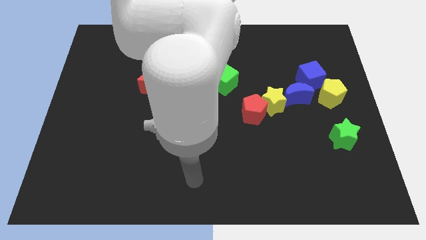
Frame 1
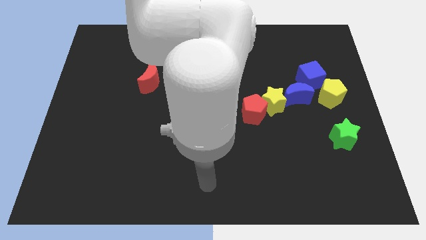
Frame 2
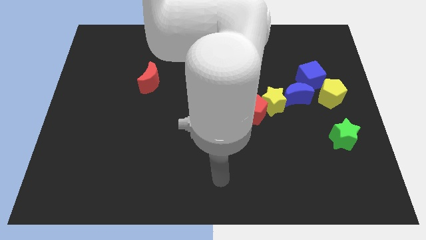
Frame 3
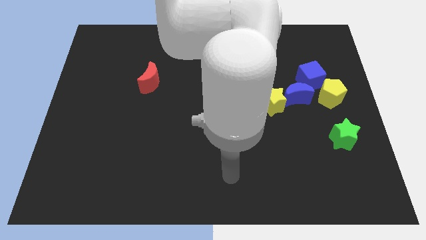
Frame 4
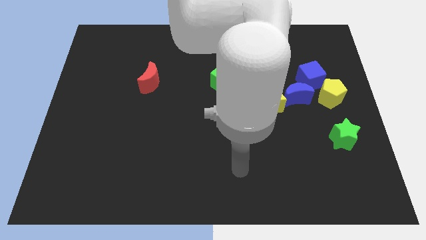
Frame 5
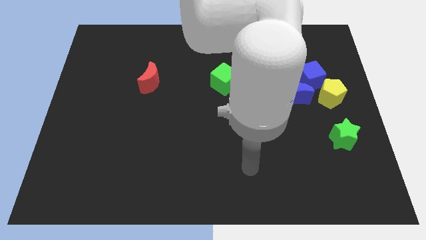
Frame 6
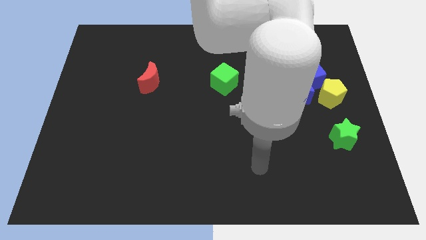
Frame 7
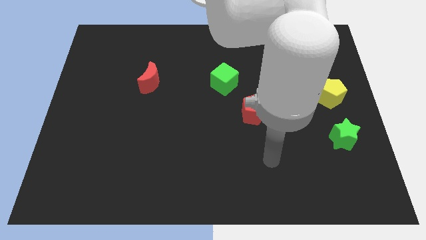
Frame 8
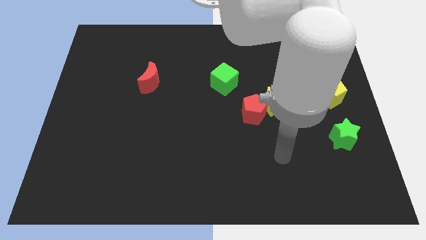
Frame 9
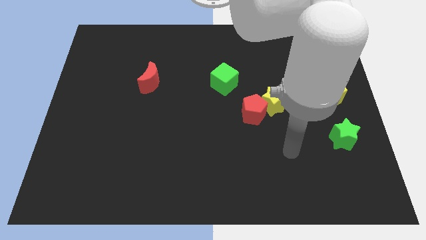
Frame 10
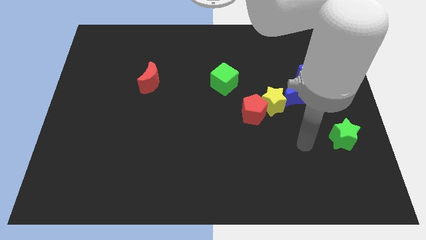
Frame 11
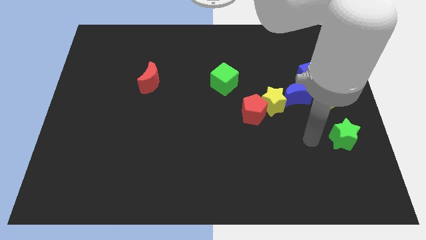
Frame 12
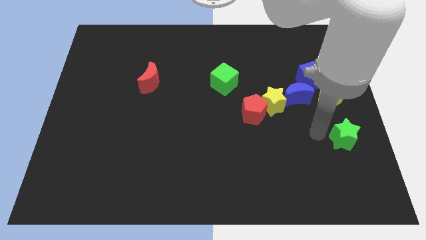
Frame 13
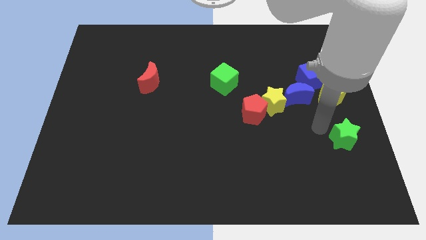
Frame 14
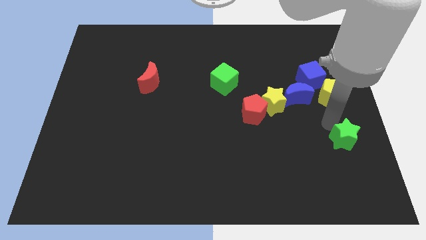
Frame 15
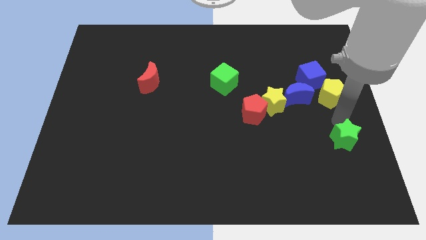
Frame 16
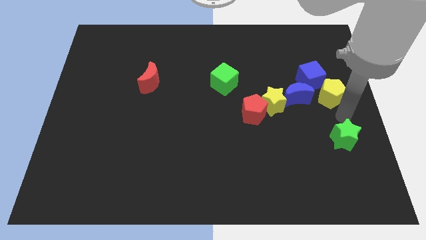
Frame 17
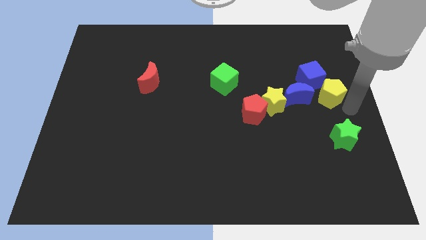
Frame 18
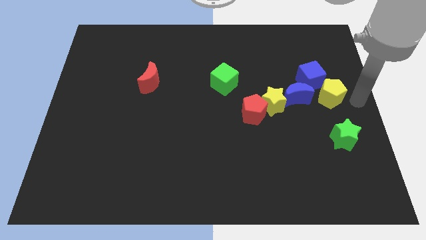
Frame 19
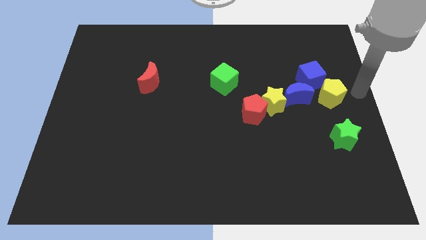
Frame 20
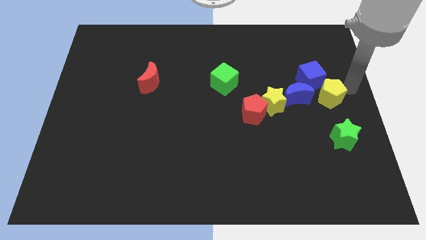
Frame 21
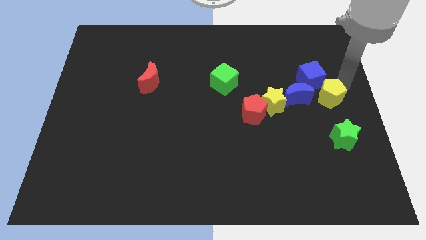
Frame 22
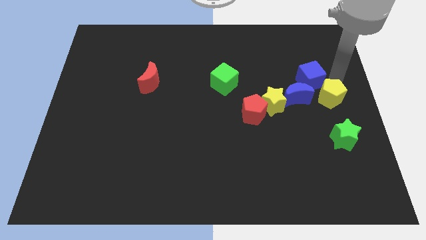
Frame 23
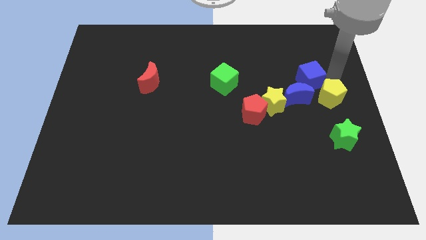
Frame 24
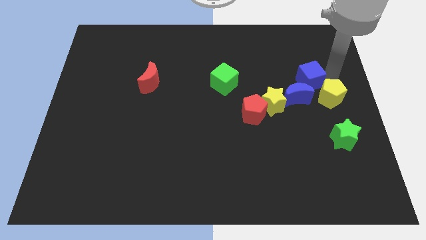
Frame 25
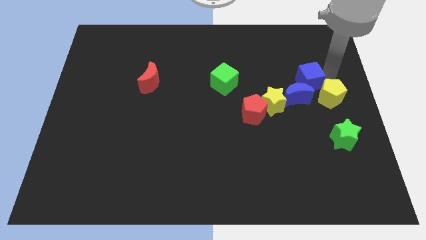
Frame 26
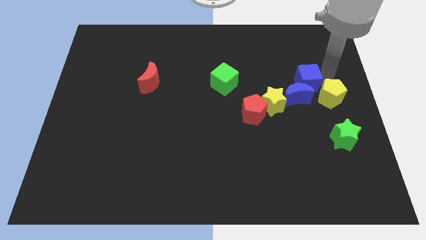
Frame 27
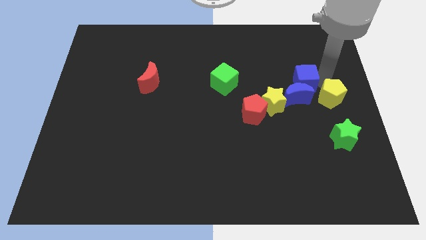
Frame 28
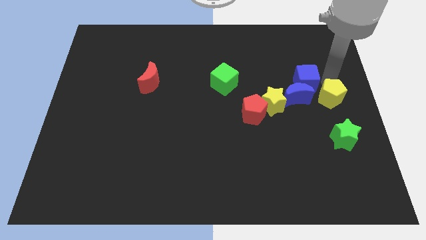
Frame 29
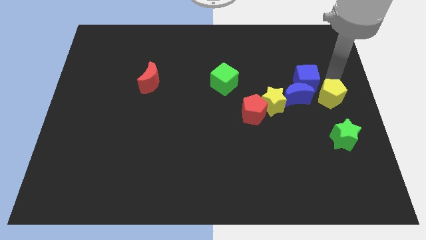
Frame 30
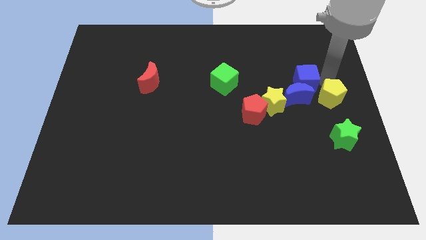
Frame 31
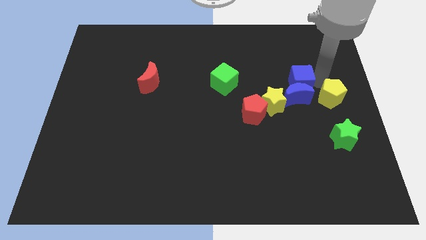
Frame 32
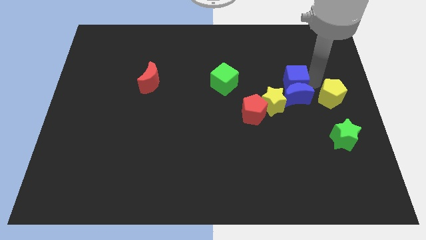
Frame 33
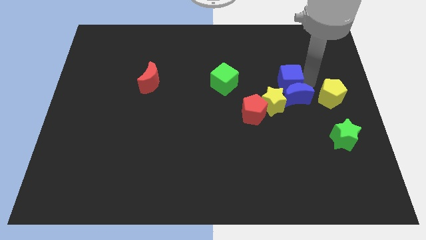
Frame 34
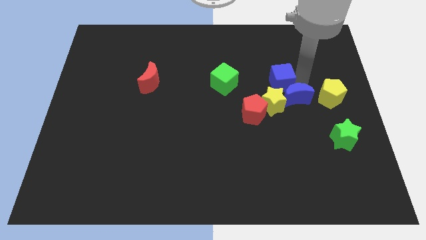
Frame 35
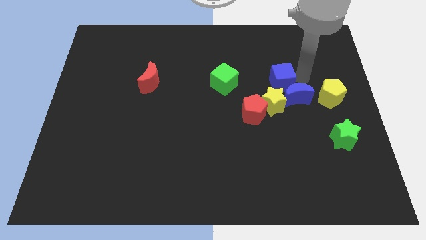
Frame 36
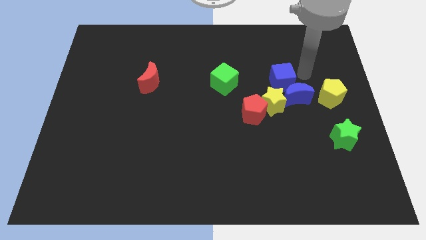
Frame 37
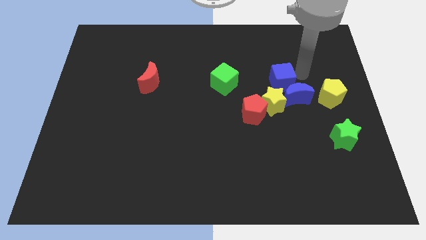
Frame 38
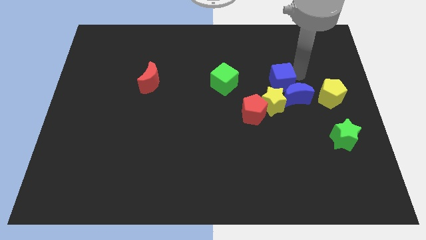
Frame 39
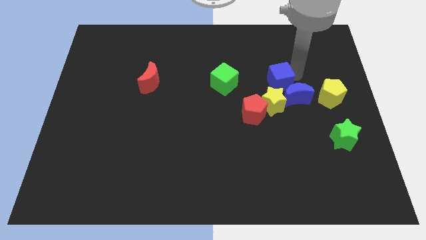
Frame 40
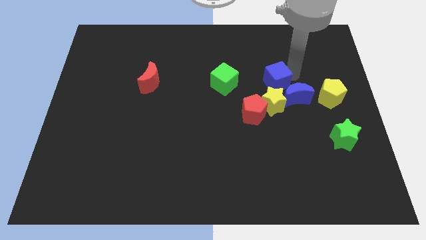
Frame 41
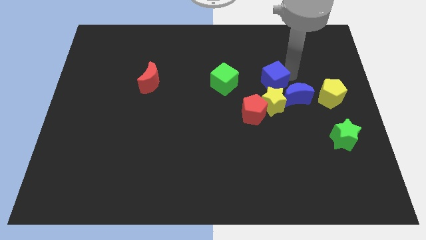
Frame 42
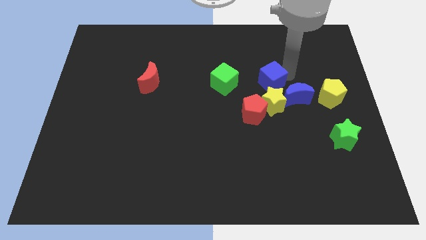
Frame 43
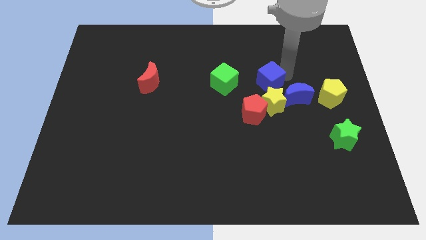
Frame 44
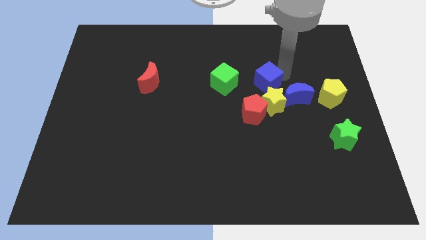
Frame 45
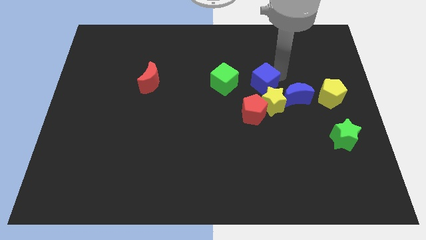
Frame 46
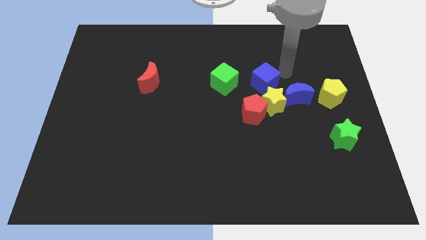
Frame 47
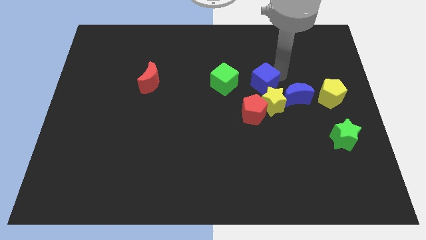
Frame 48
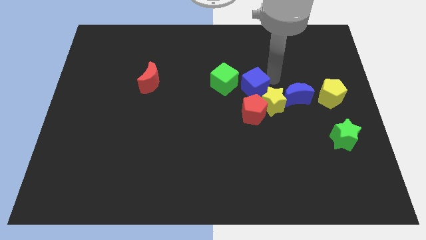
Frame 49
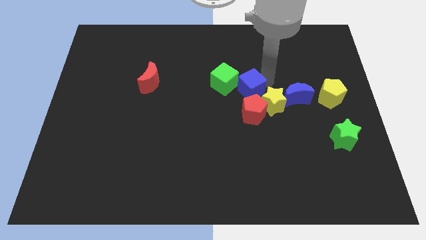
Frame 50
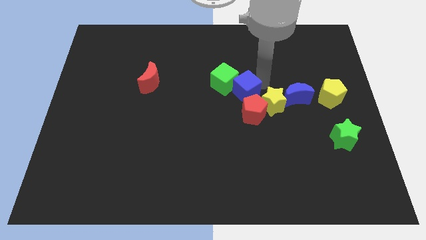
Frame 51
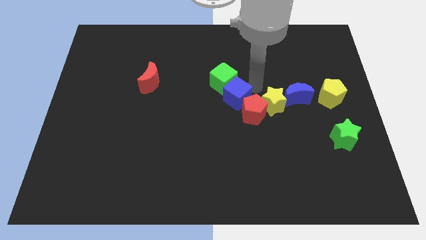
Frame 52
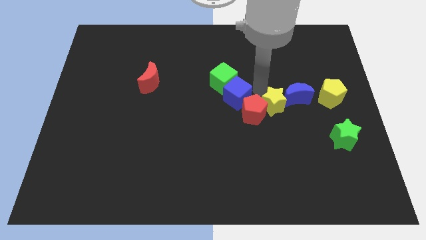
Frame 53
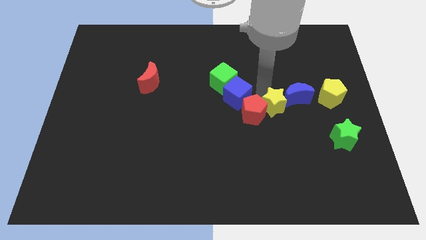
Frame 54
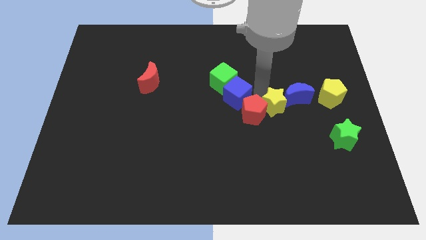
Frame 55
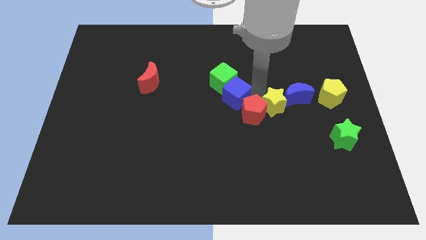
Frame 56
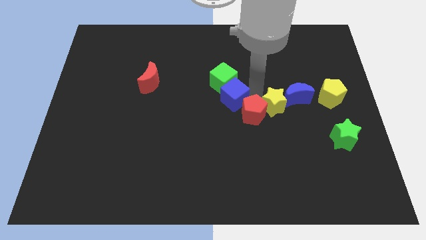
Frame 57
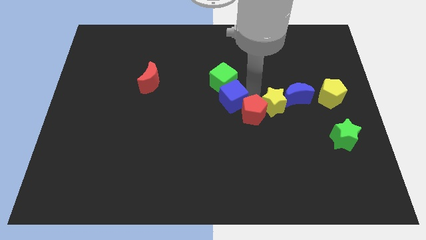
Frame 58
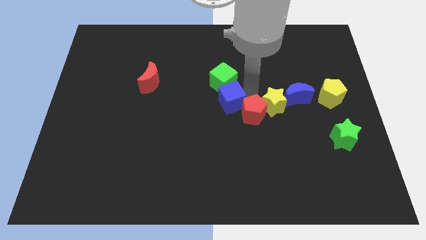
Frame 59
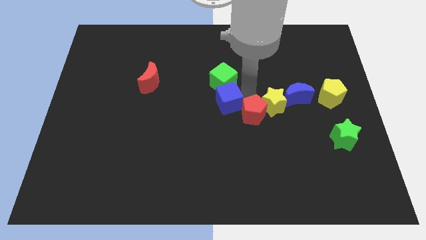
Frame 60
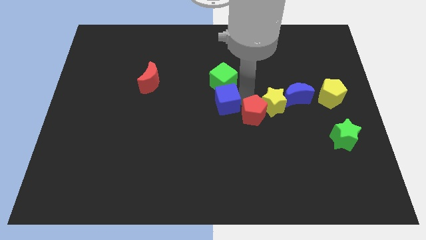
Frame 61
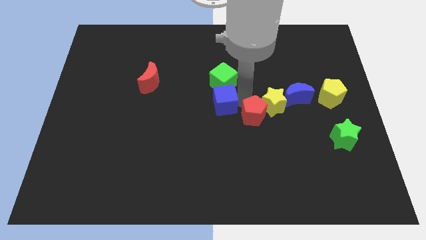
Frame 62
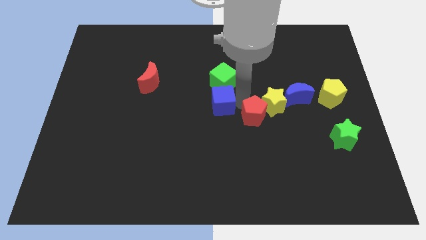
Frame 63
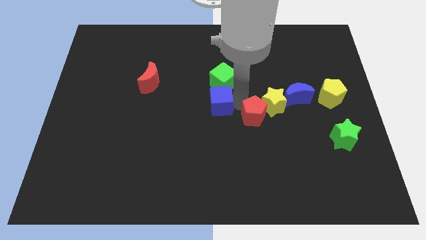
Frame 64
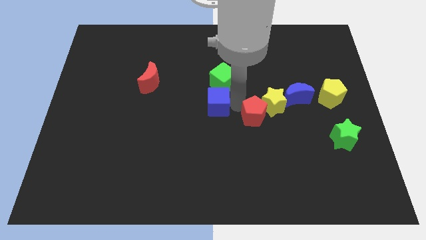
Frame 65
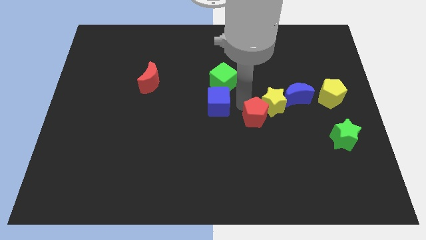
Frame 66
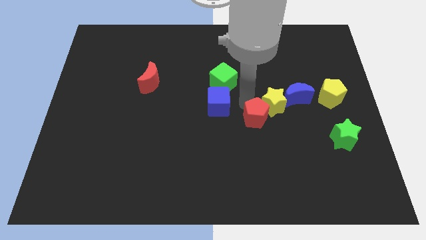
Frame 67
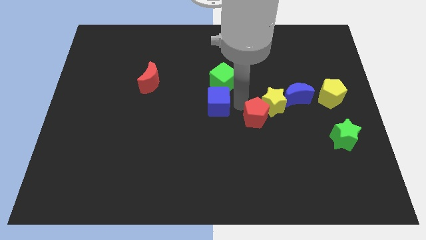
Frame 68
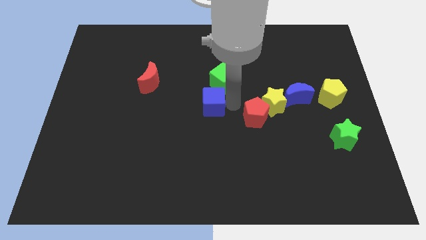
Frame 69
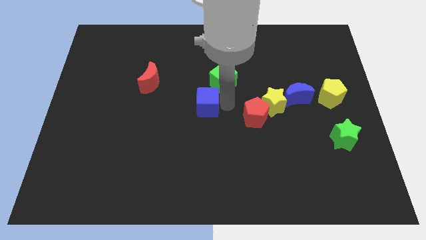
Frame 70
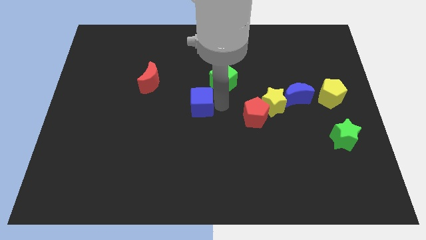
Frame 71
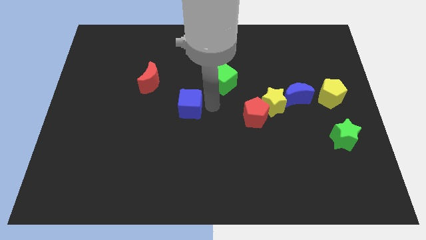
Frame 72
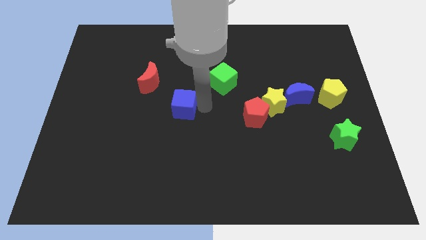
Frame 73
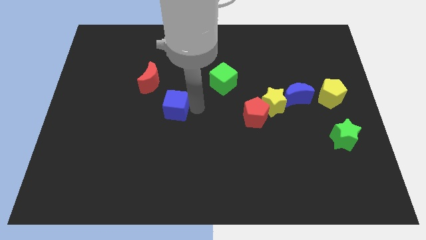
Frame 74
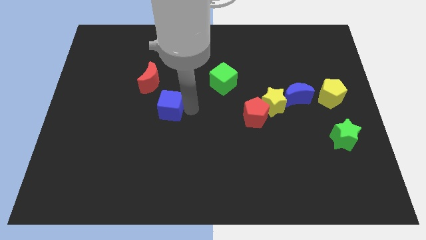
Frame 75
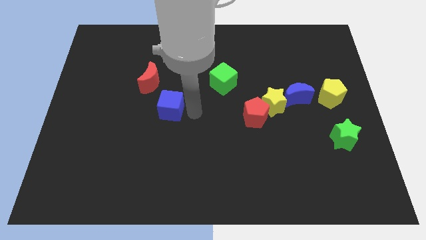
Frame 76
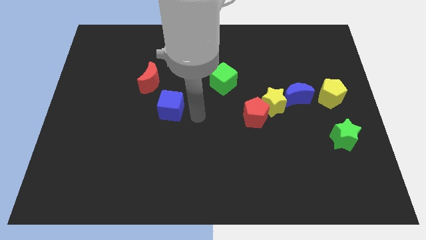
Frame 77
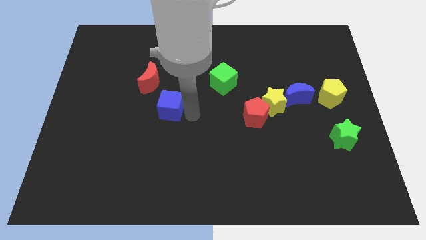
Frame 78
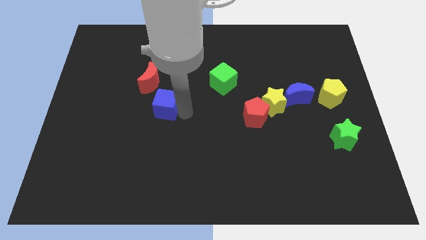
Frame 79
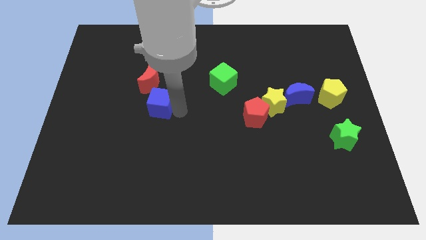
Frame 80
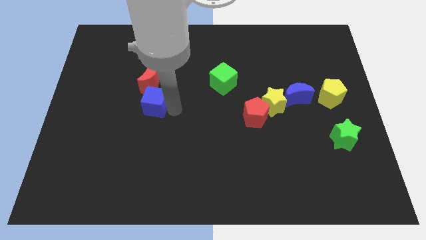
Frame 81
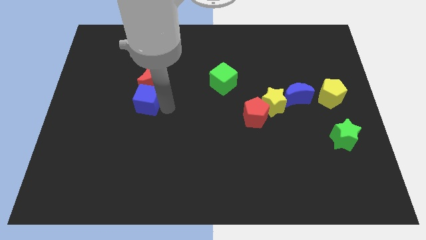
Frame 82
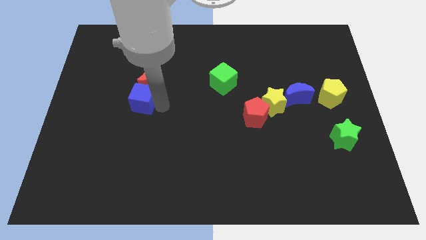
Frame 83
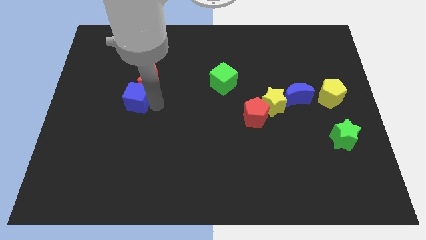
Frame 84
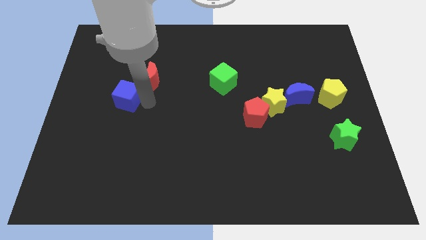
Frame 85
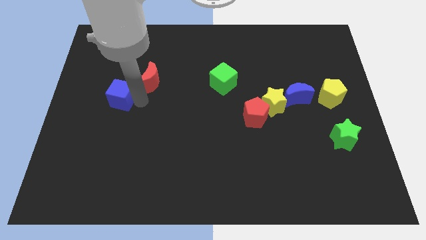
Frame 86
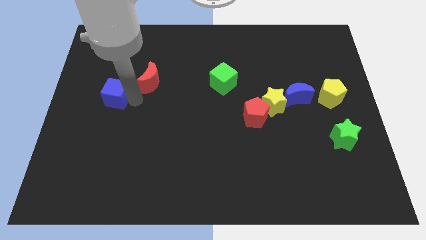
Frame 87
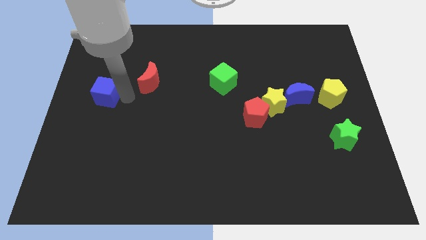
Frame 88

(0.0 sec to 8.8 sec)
move the blue cube to the center left
